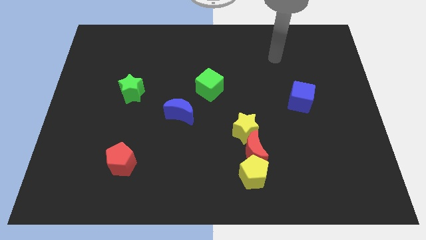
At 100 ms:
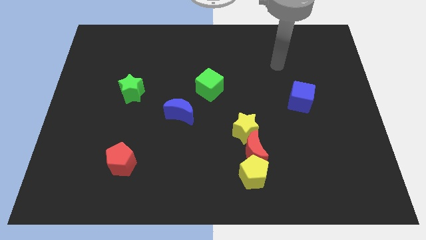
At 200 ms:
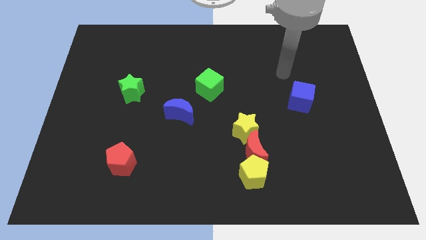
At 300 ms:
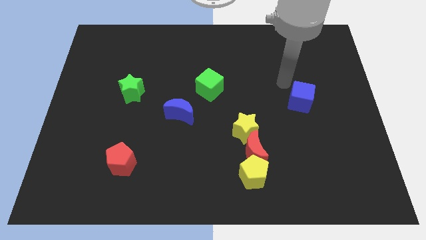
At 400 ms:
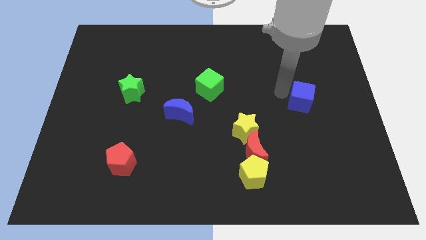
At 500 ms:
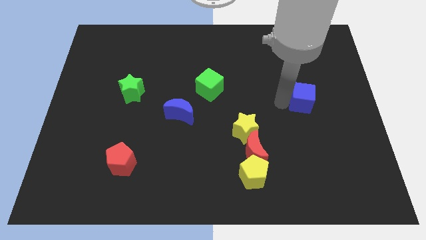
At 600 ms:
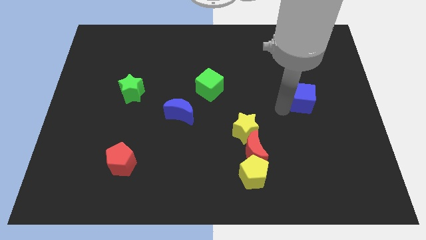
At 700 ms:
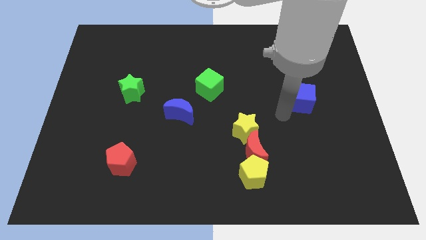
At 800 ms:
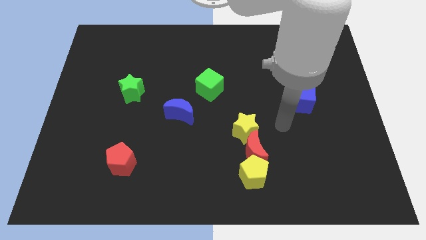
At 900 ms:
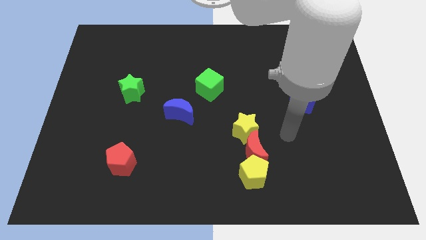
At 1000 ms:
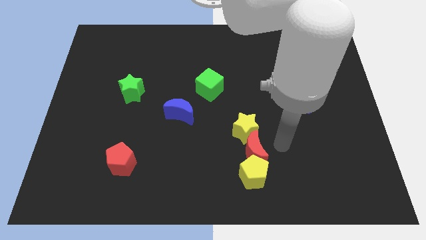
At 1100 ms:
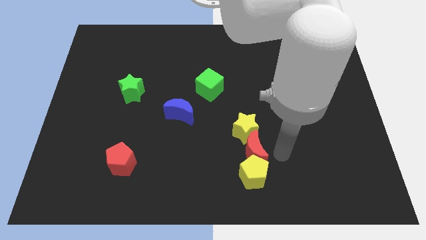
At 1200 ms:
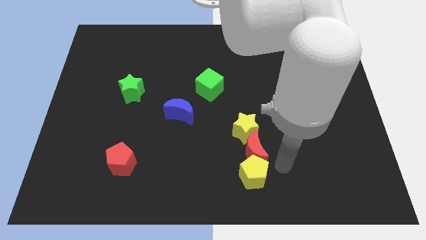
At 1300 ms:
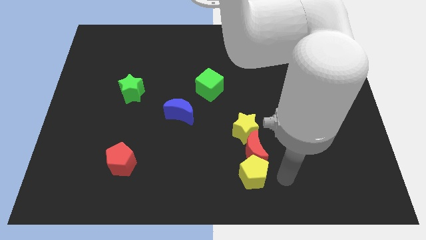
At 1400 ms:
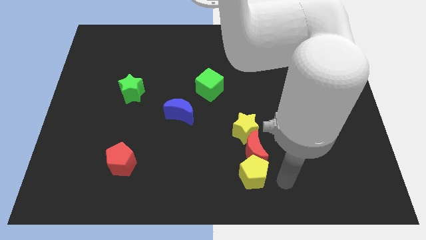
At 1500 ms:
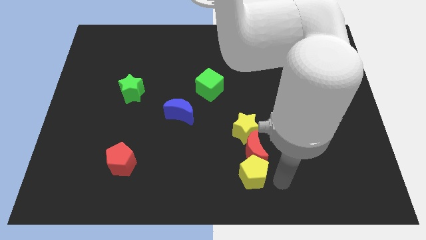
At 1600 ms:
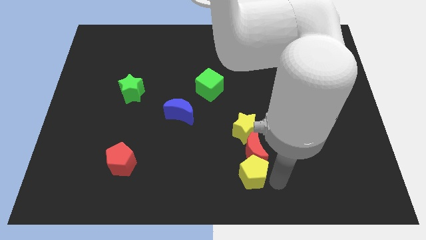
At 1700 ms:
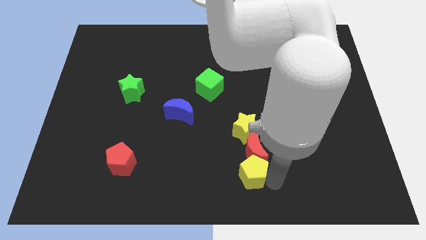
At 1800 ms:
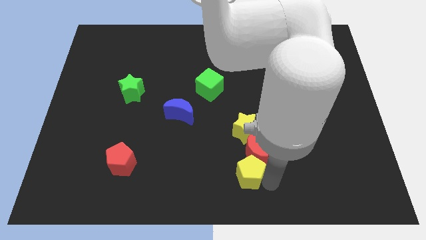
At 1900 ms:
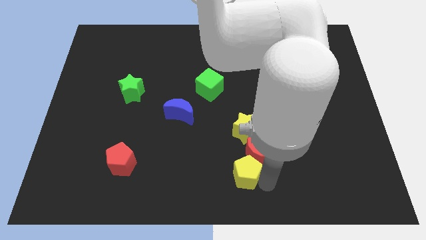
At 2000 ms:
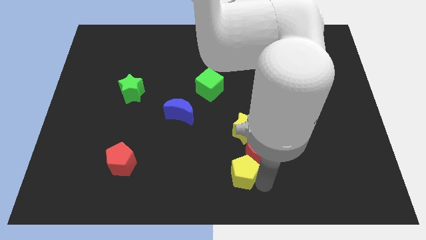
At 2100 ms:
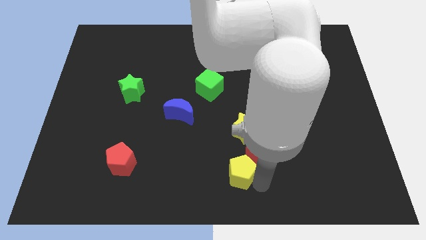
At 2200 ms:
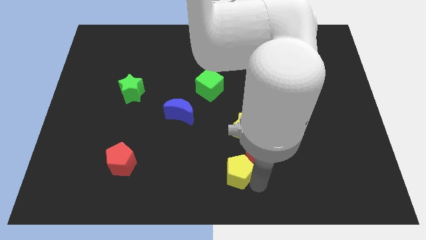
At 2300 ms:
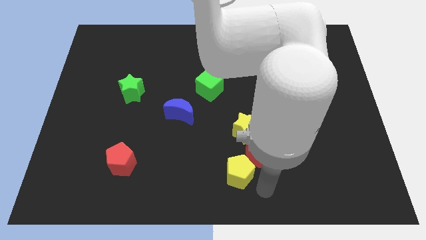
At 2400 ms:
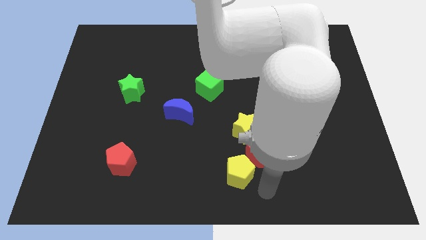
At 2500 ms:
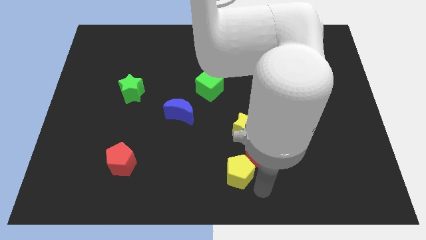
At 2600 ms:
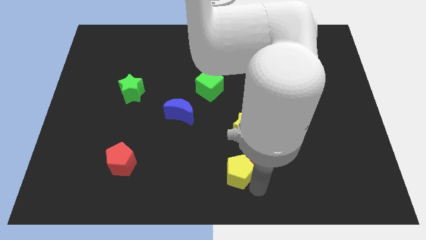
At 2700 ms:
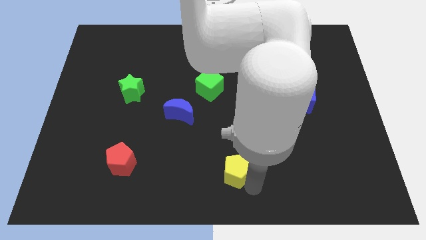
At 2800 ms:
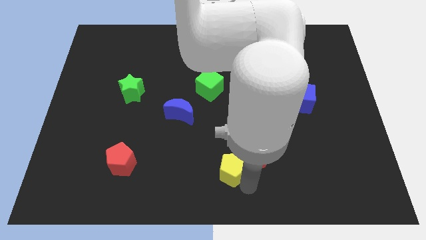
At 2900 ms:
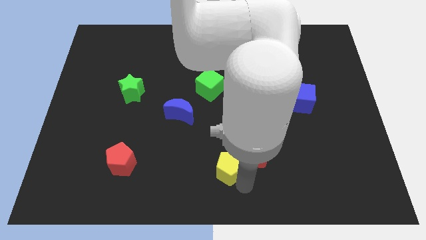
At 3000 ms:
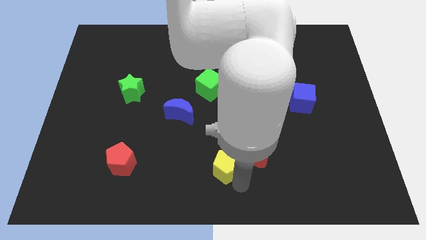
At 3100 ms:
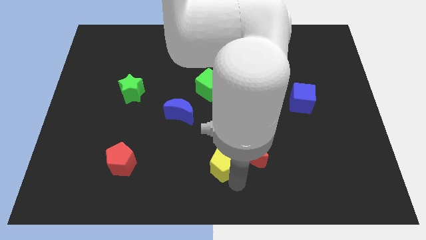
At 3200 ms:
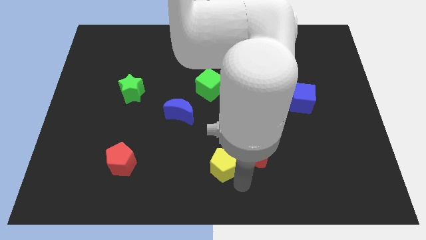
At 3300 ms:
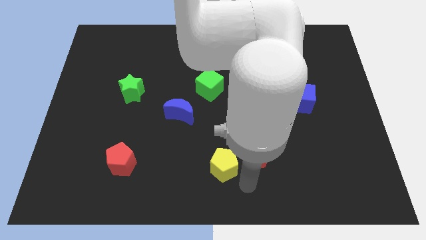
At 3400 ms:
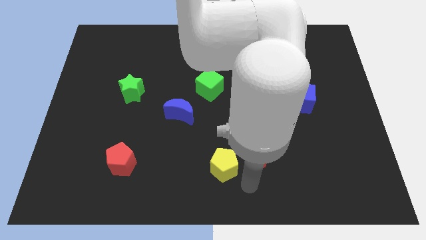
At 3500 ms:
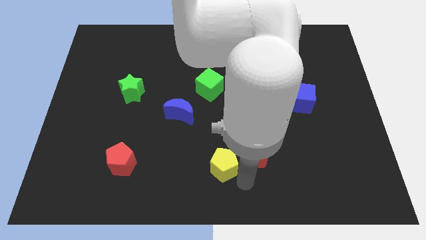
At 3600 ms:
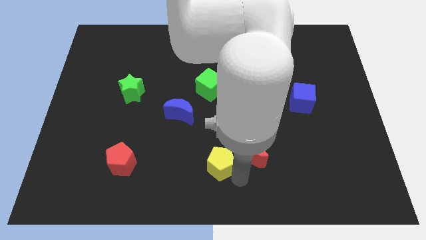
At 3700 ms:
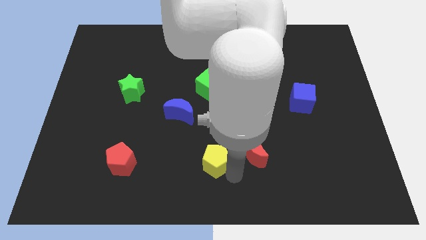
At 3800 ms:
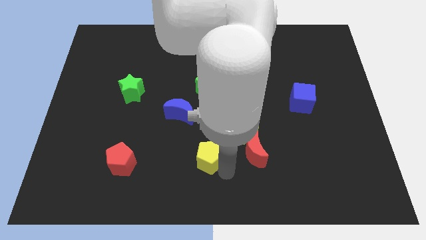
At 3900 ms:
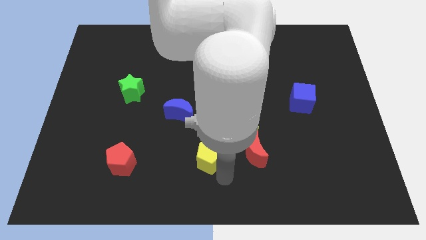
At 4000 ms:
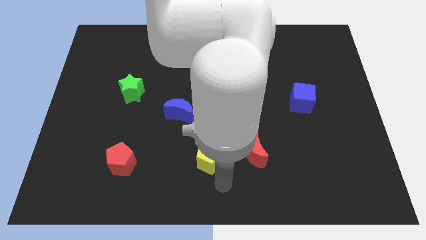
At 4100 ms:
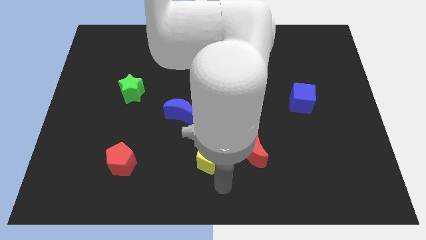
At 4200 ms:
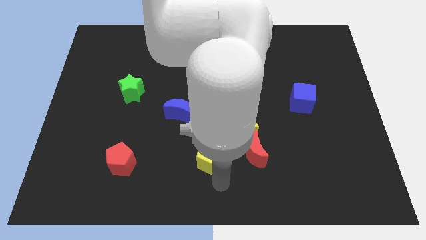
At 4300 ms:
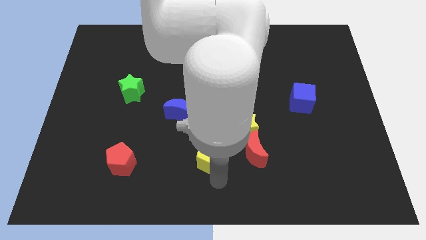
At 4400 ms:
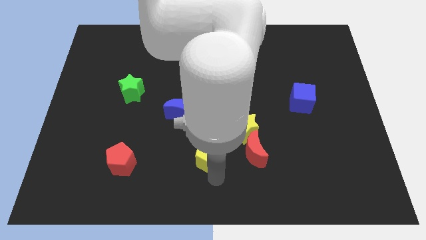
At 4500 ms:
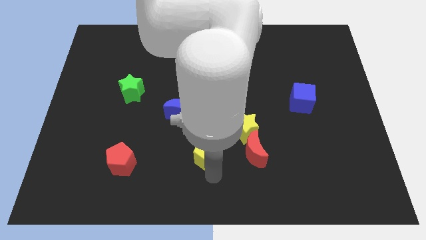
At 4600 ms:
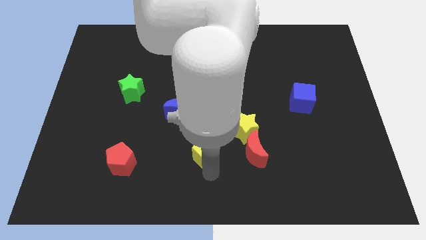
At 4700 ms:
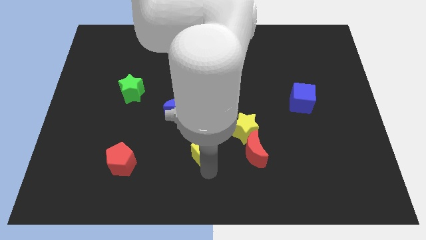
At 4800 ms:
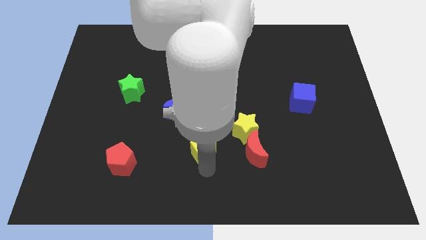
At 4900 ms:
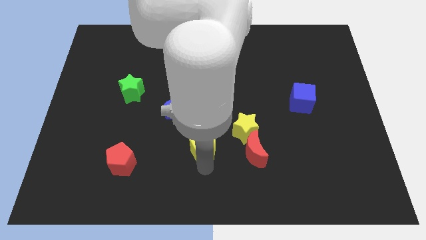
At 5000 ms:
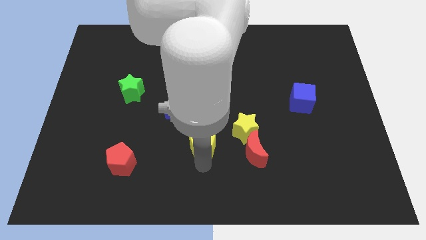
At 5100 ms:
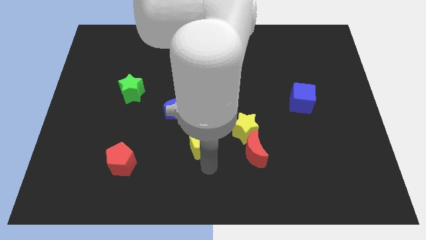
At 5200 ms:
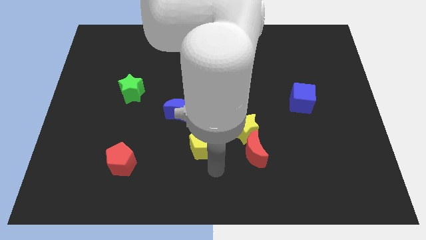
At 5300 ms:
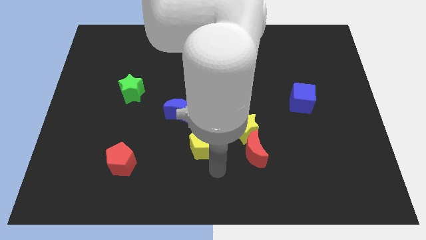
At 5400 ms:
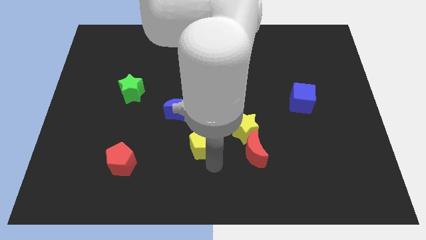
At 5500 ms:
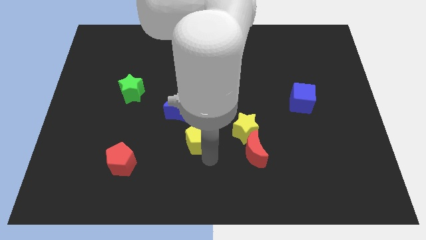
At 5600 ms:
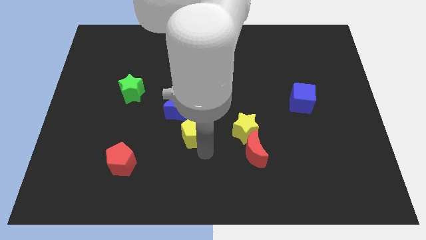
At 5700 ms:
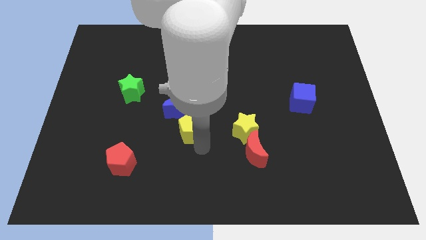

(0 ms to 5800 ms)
slide the yellow pentagon towards the blue moon
